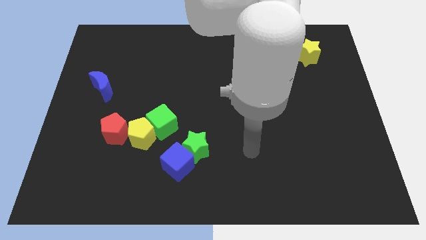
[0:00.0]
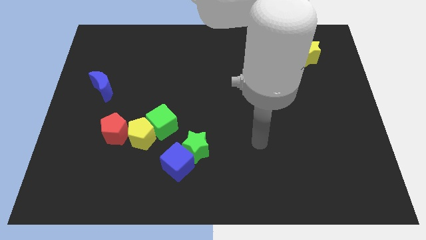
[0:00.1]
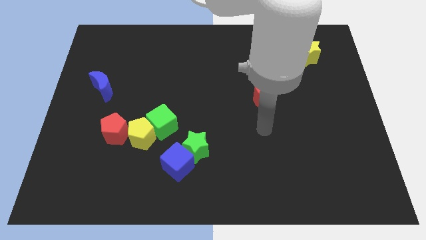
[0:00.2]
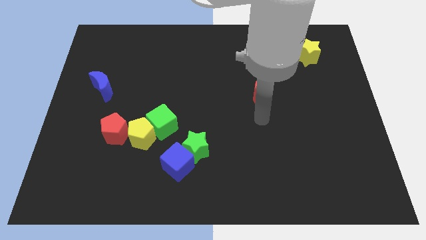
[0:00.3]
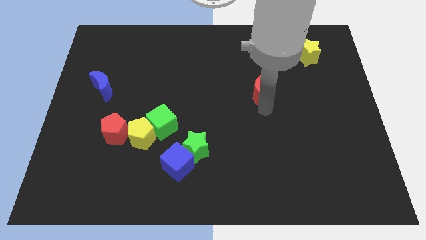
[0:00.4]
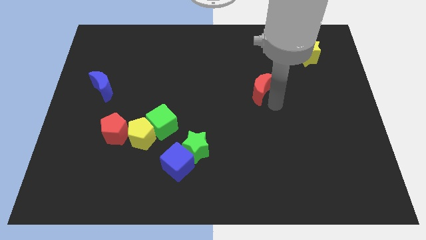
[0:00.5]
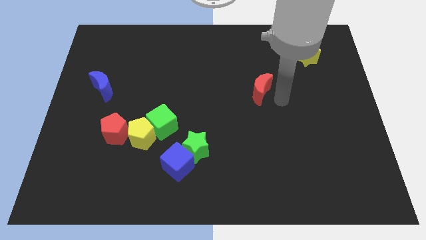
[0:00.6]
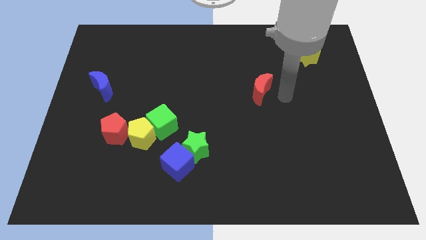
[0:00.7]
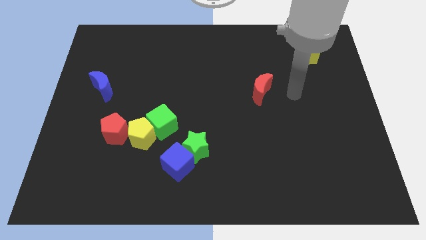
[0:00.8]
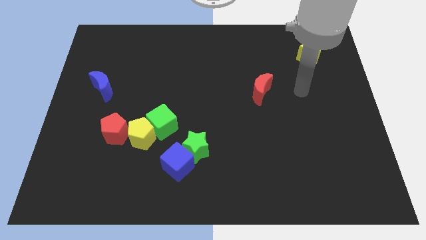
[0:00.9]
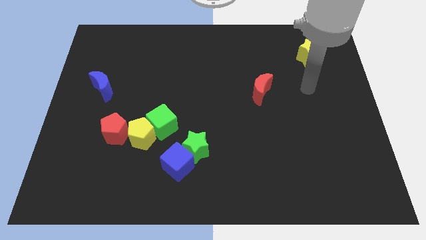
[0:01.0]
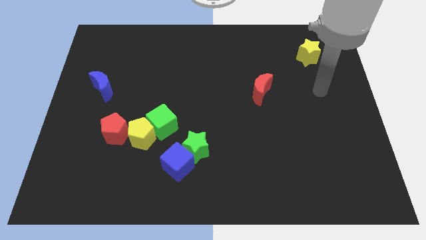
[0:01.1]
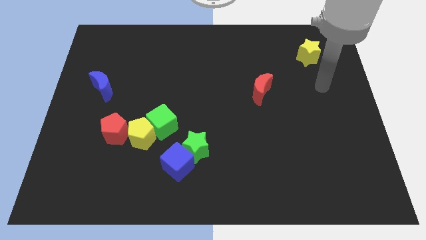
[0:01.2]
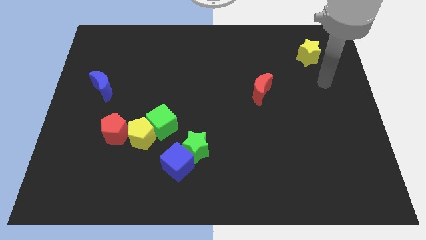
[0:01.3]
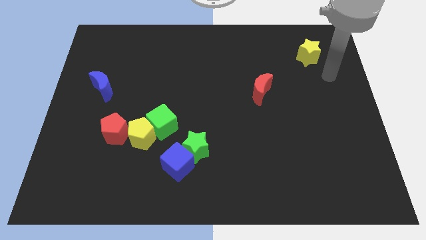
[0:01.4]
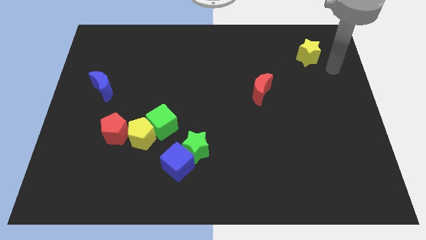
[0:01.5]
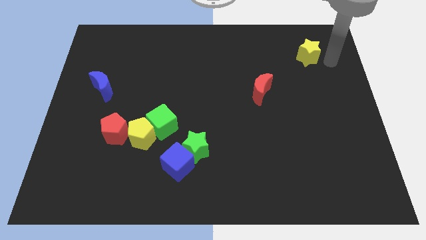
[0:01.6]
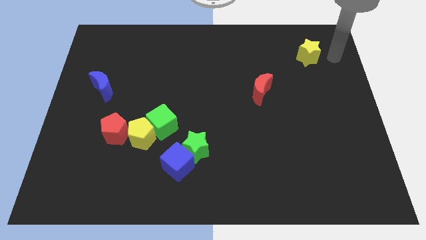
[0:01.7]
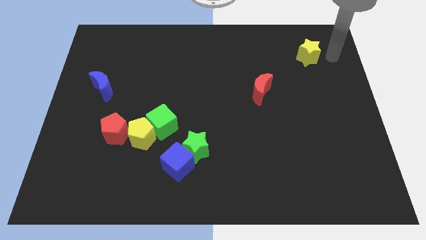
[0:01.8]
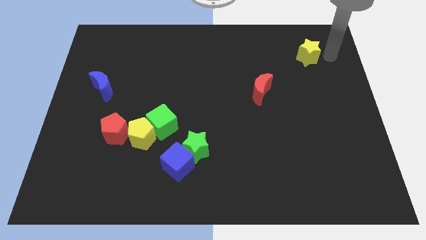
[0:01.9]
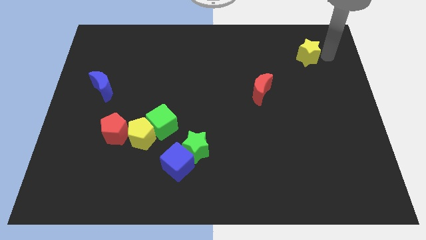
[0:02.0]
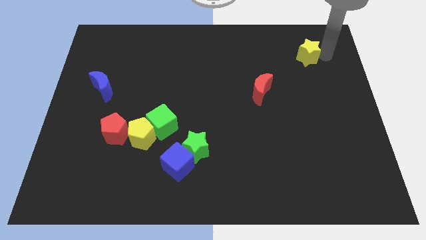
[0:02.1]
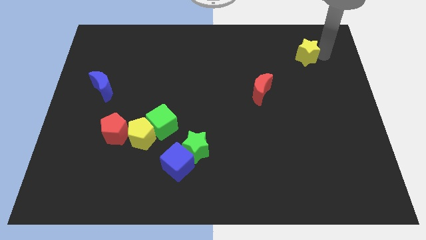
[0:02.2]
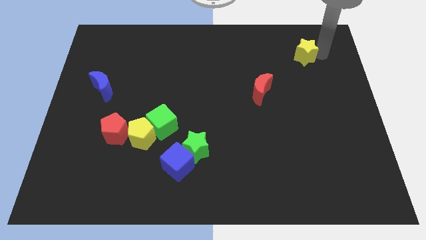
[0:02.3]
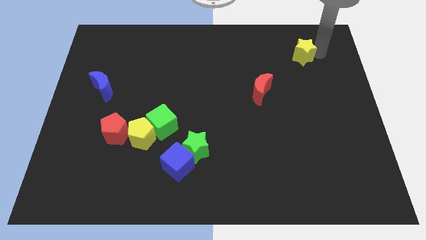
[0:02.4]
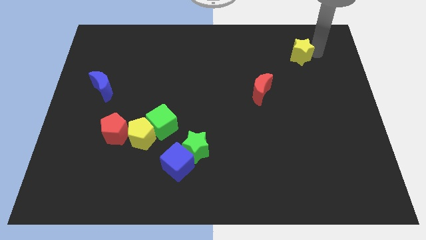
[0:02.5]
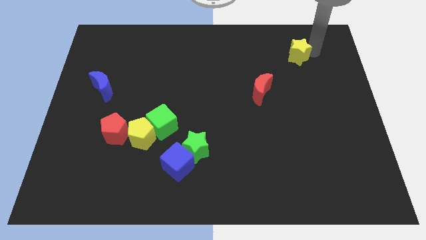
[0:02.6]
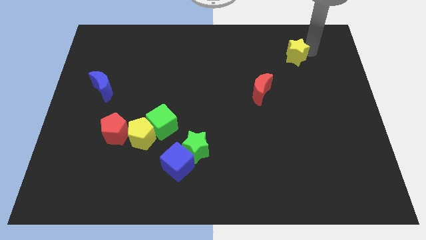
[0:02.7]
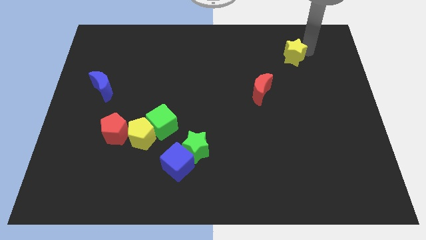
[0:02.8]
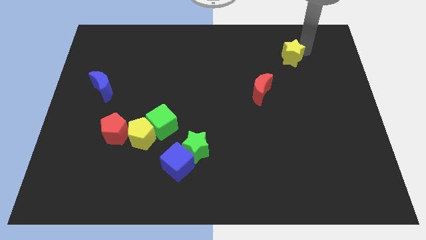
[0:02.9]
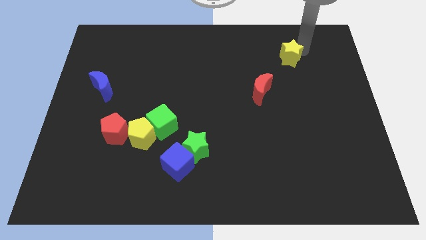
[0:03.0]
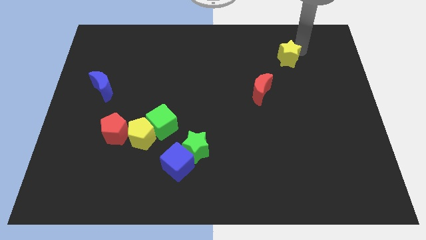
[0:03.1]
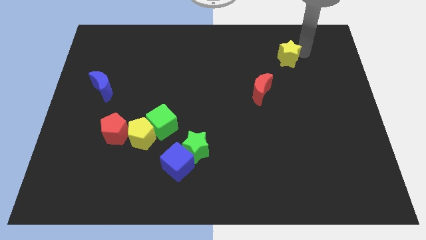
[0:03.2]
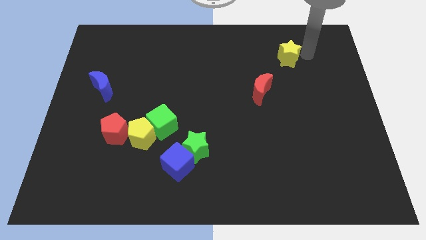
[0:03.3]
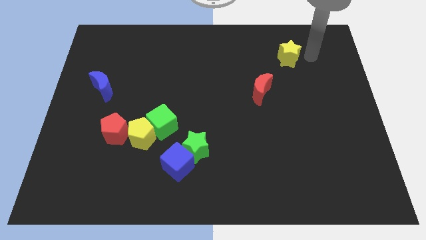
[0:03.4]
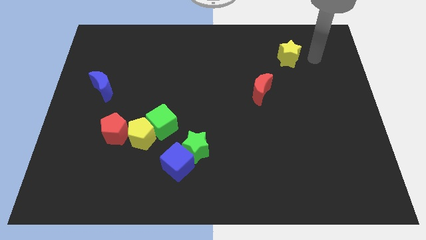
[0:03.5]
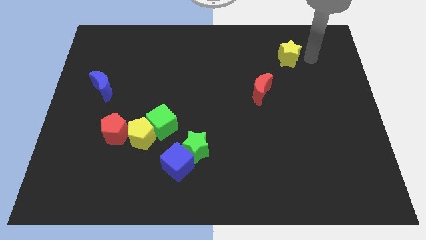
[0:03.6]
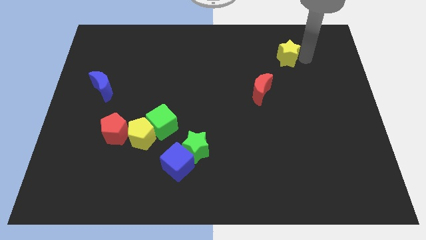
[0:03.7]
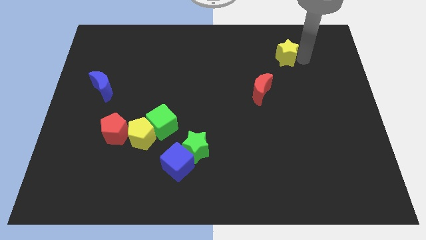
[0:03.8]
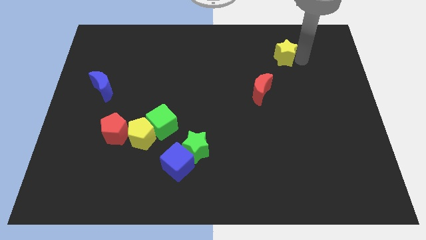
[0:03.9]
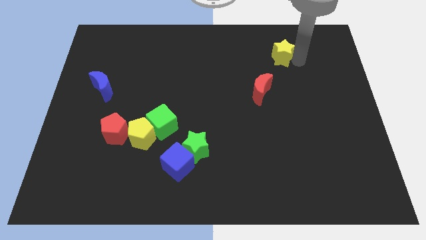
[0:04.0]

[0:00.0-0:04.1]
slightly slide the yellow star left

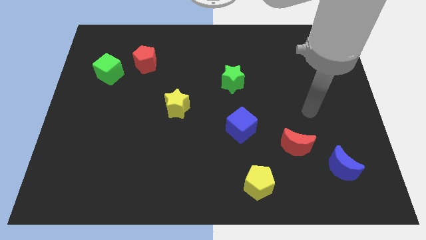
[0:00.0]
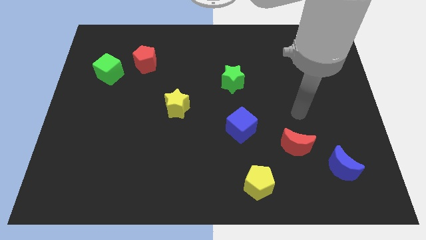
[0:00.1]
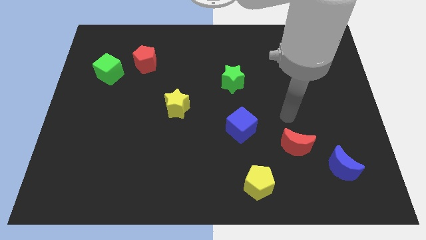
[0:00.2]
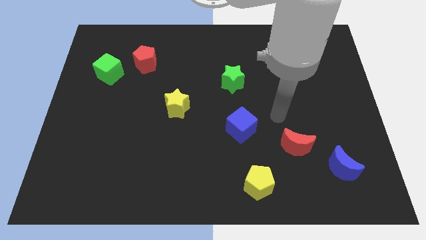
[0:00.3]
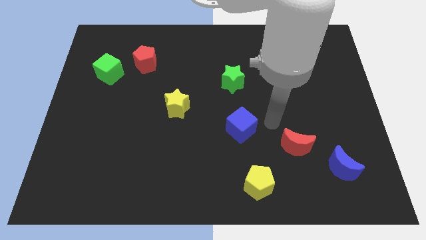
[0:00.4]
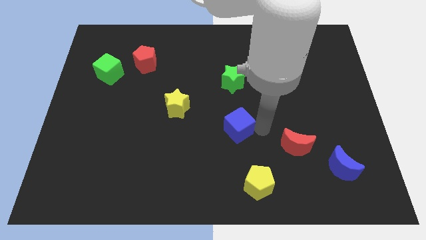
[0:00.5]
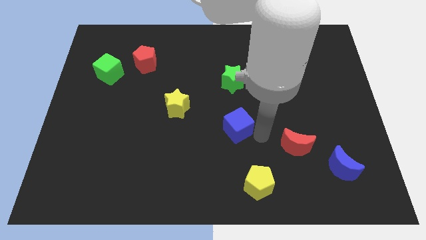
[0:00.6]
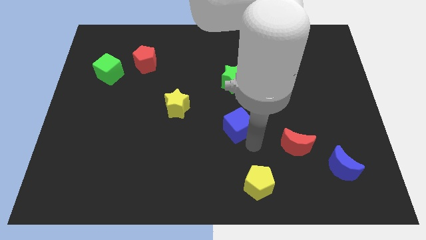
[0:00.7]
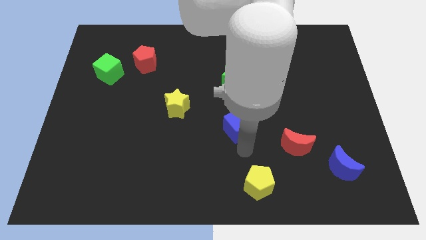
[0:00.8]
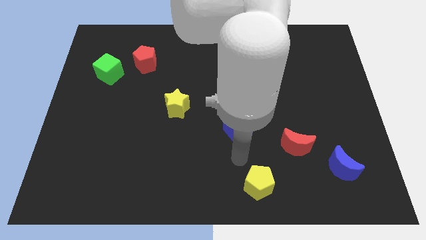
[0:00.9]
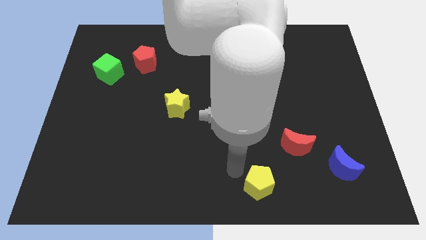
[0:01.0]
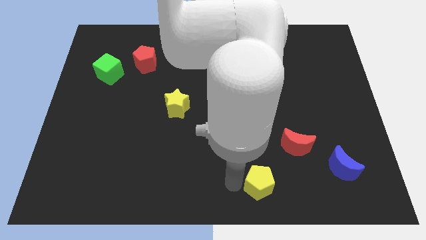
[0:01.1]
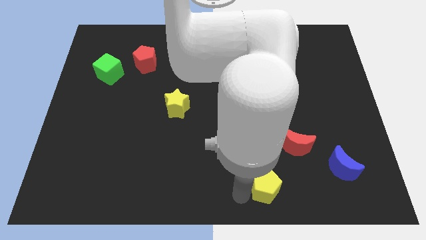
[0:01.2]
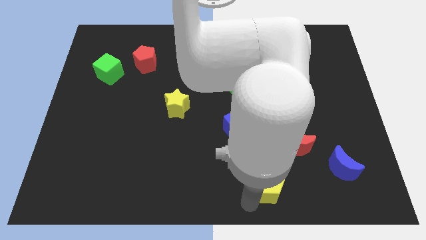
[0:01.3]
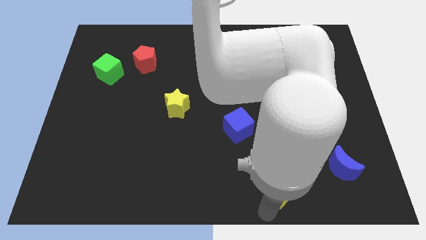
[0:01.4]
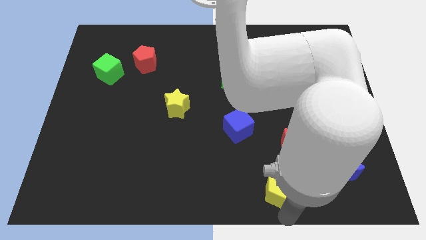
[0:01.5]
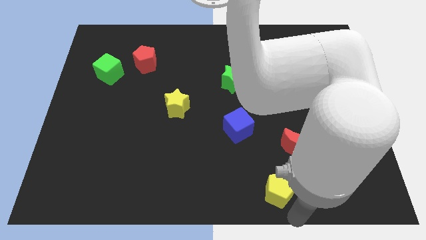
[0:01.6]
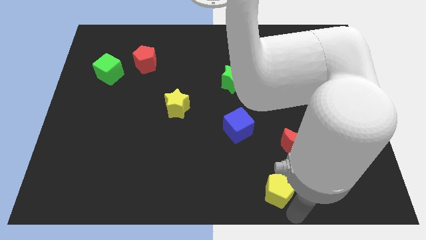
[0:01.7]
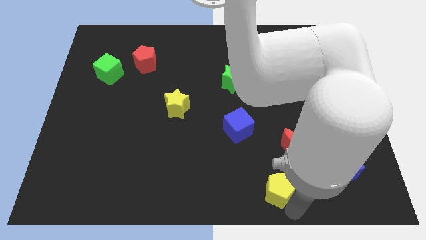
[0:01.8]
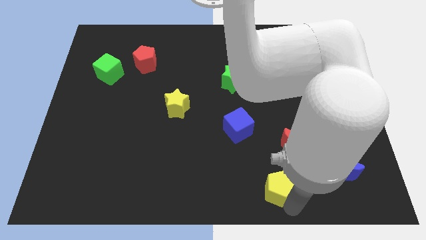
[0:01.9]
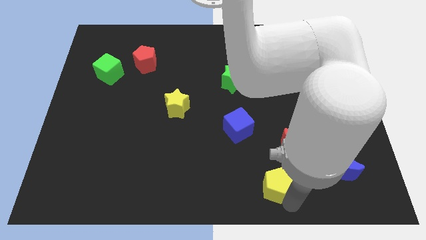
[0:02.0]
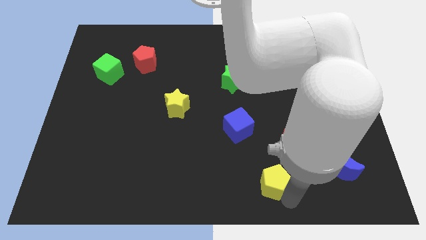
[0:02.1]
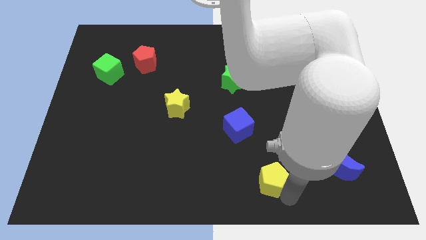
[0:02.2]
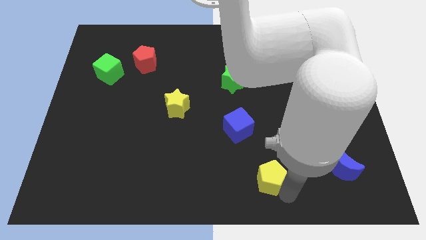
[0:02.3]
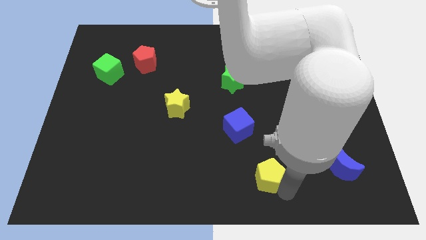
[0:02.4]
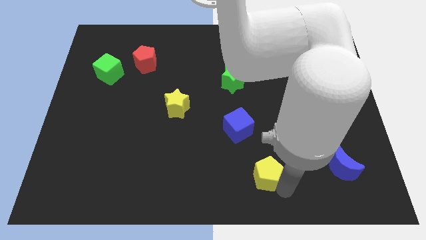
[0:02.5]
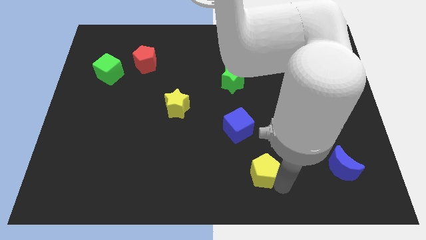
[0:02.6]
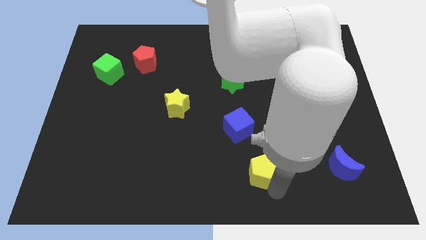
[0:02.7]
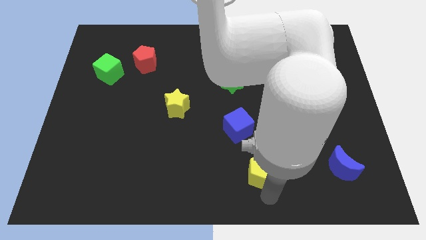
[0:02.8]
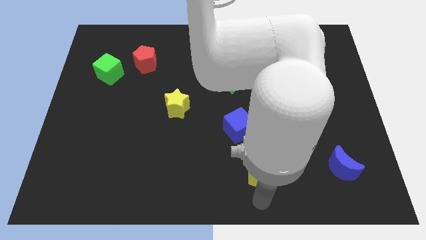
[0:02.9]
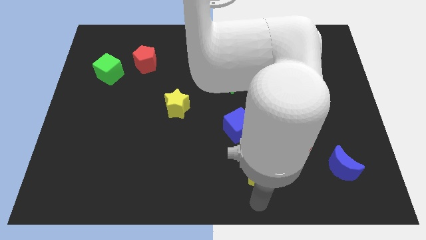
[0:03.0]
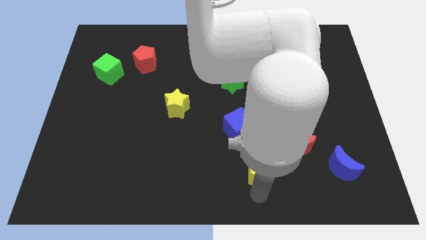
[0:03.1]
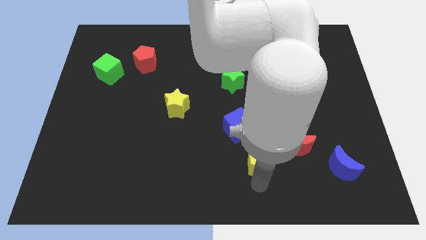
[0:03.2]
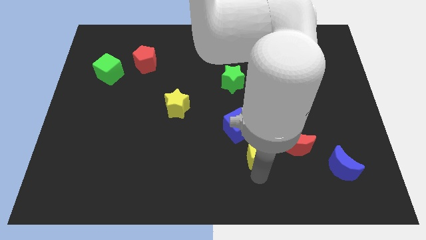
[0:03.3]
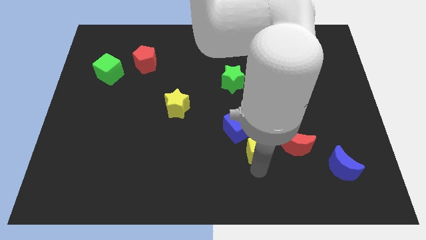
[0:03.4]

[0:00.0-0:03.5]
slide the yellow pentagon a little up

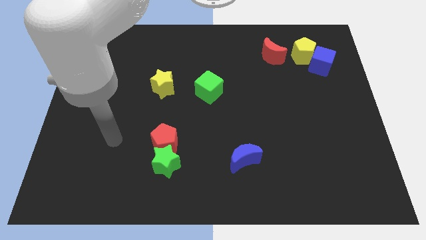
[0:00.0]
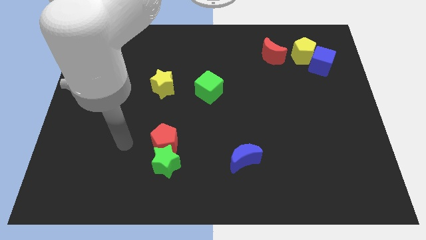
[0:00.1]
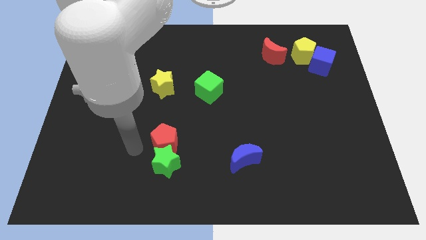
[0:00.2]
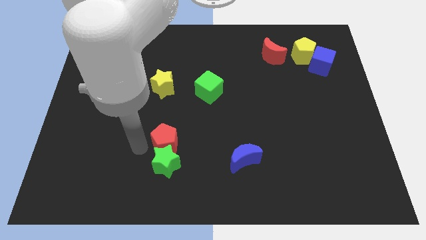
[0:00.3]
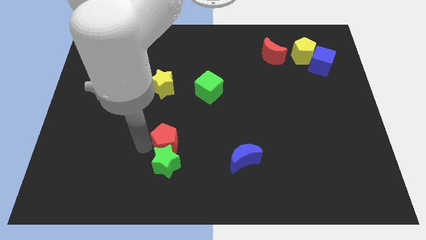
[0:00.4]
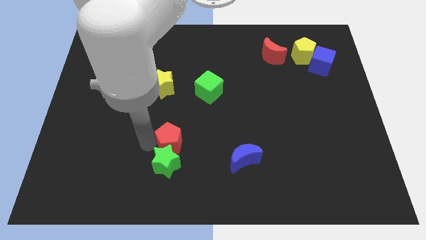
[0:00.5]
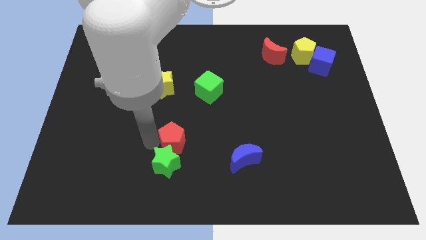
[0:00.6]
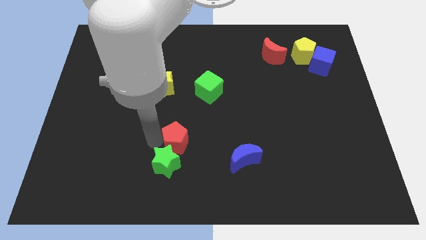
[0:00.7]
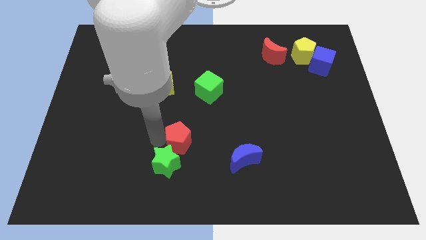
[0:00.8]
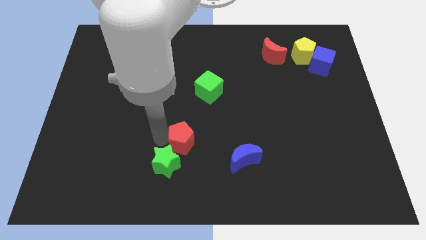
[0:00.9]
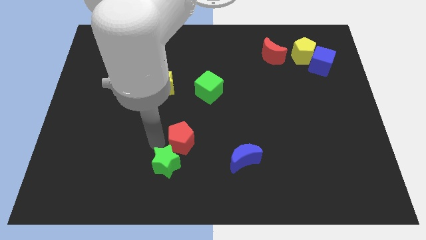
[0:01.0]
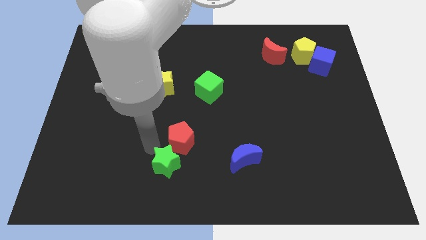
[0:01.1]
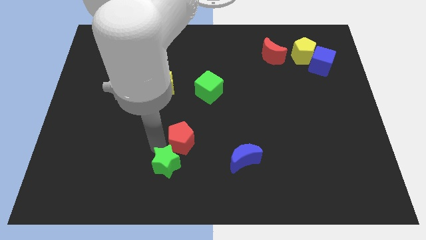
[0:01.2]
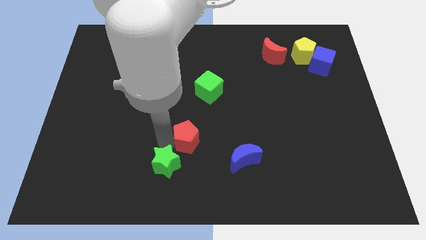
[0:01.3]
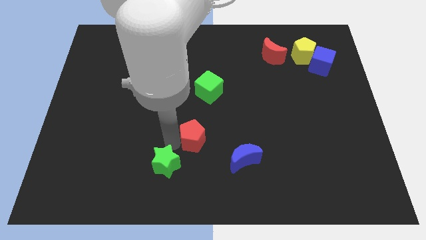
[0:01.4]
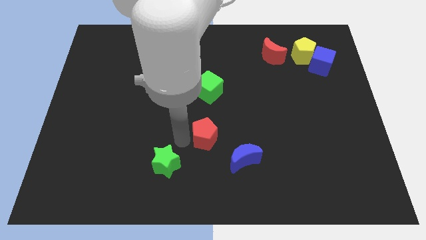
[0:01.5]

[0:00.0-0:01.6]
push the red pentagon right somewhat
